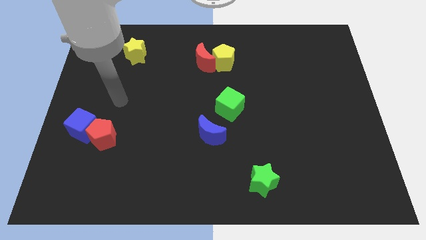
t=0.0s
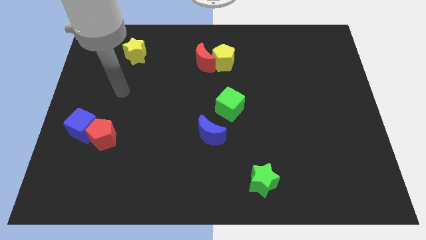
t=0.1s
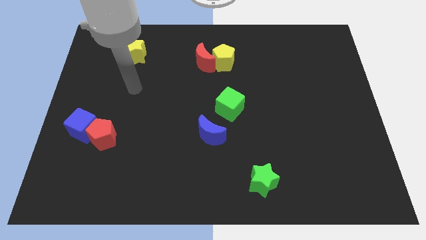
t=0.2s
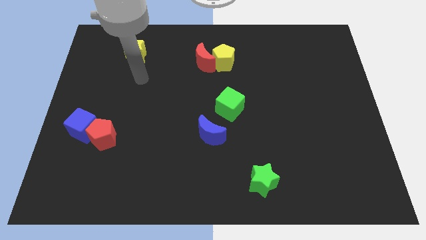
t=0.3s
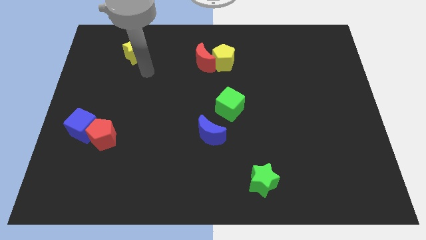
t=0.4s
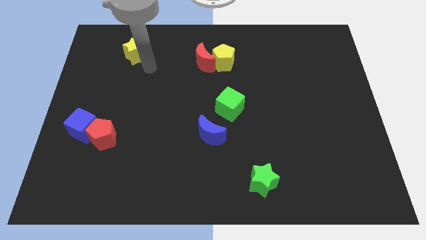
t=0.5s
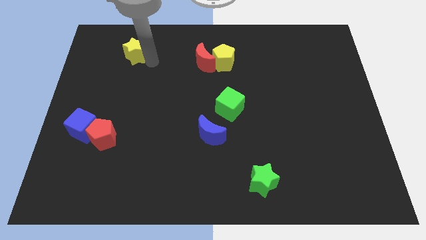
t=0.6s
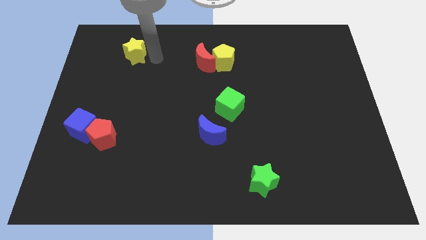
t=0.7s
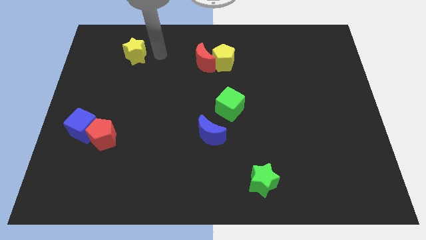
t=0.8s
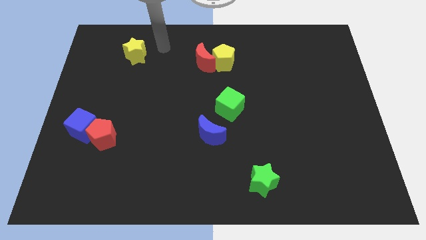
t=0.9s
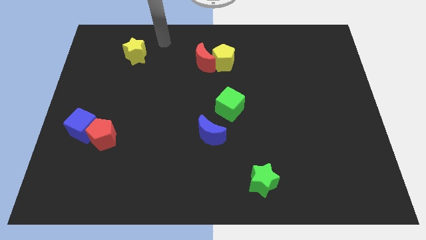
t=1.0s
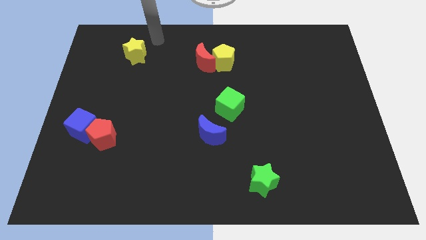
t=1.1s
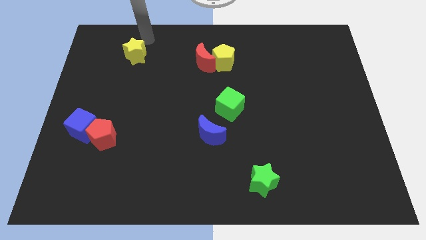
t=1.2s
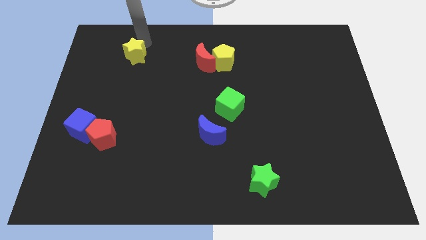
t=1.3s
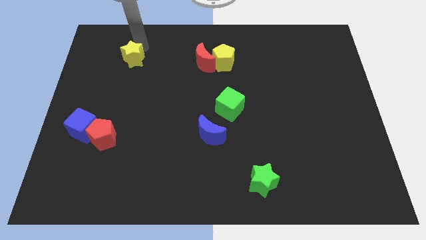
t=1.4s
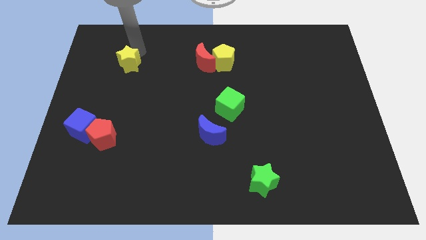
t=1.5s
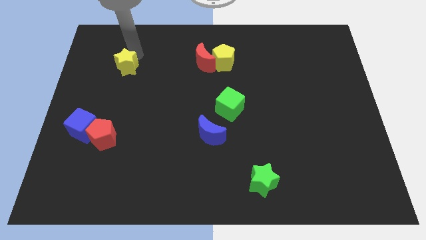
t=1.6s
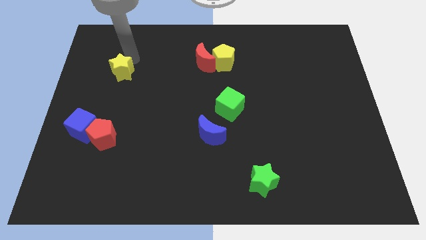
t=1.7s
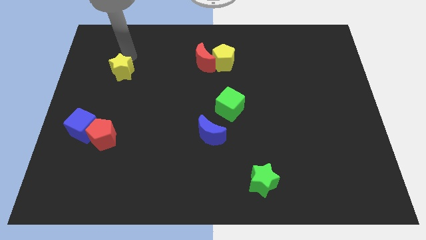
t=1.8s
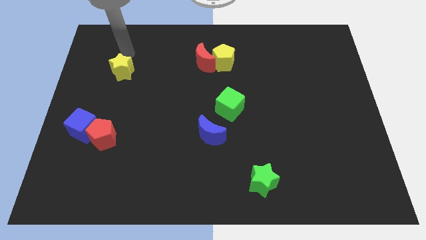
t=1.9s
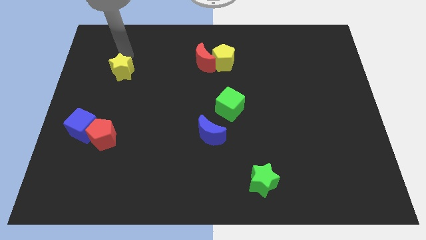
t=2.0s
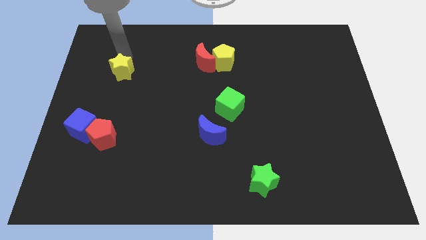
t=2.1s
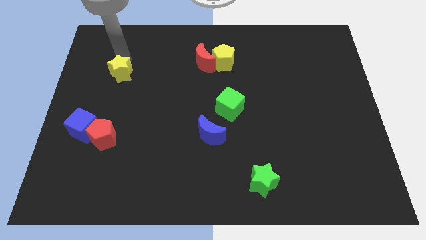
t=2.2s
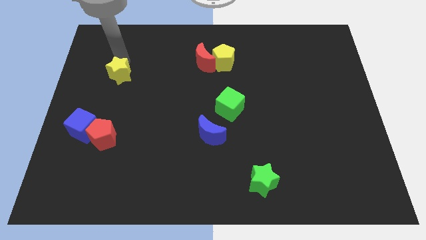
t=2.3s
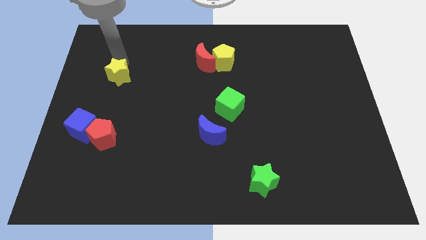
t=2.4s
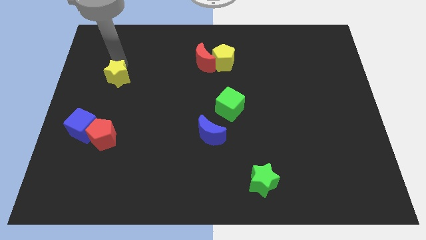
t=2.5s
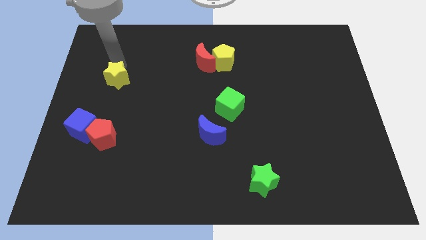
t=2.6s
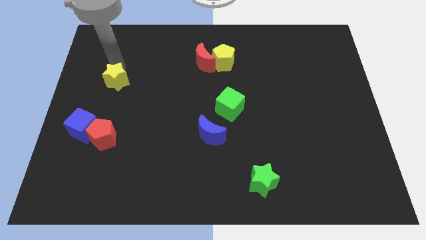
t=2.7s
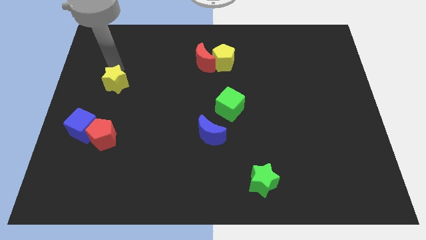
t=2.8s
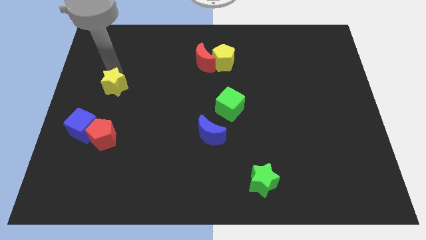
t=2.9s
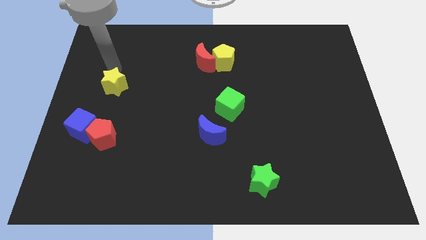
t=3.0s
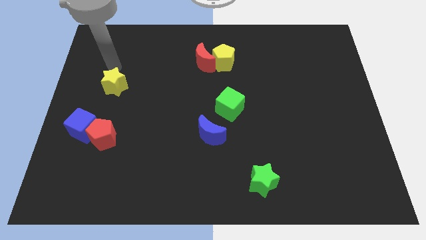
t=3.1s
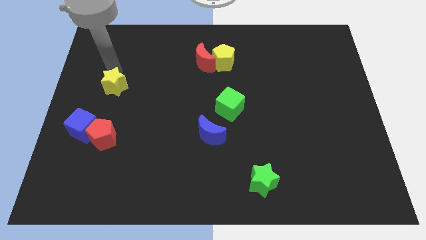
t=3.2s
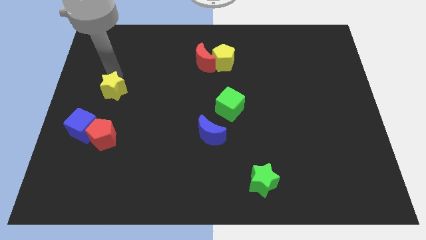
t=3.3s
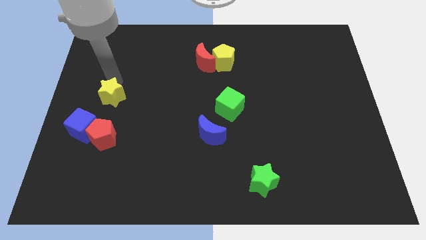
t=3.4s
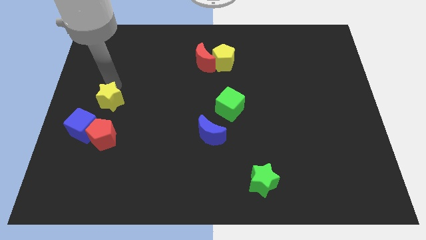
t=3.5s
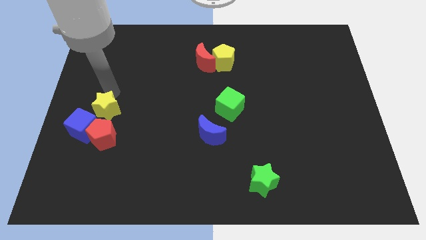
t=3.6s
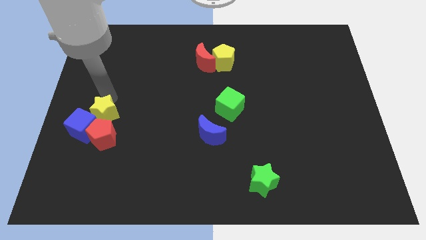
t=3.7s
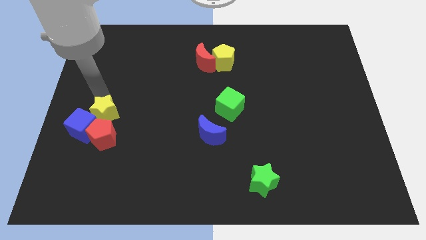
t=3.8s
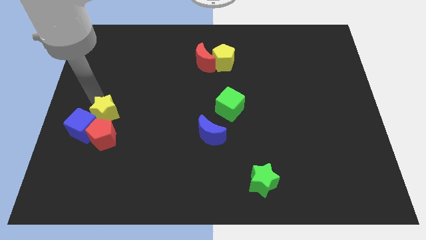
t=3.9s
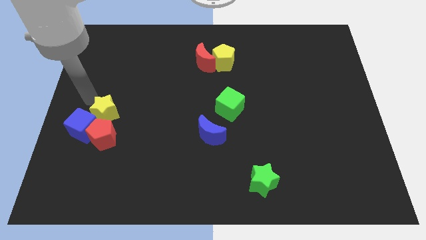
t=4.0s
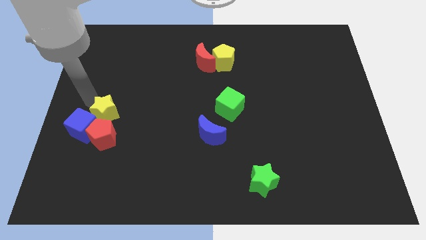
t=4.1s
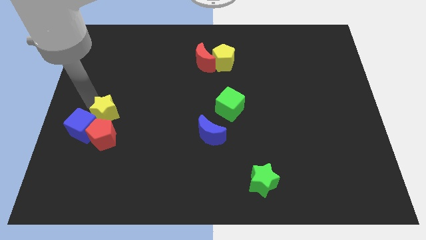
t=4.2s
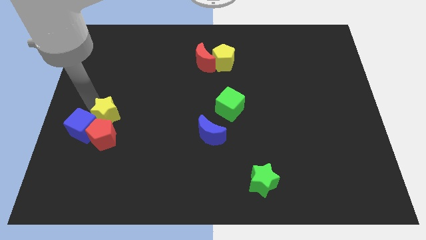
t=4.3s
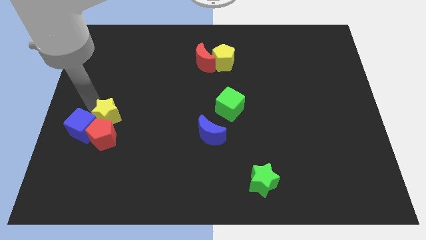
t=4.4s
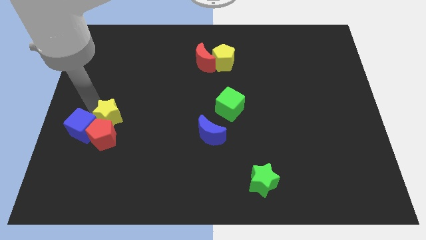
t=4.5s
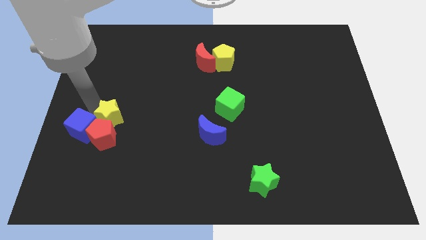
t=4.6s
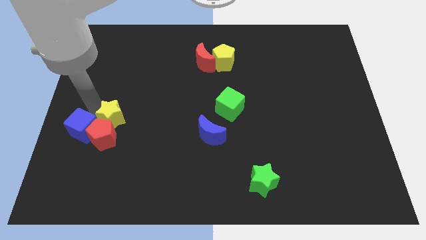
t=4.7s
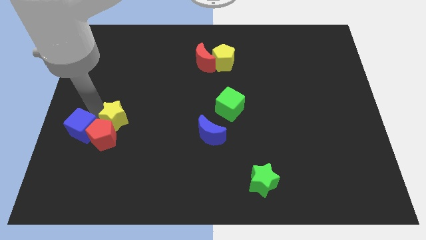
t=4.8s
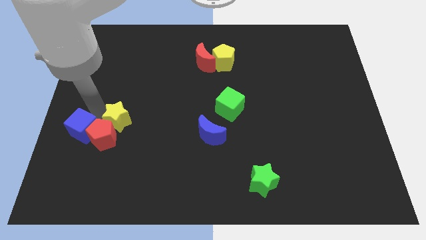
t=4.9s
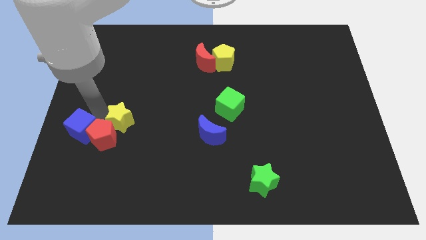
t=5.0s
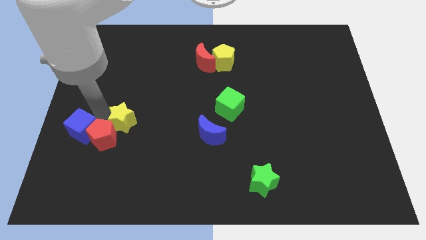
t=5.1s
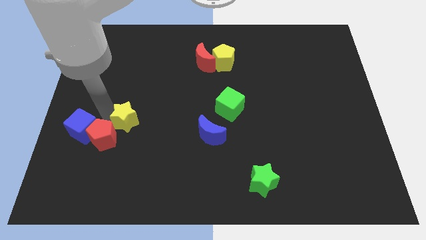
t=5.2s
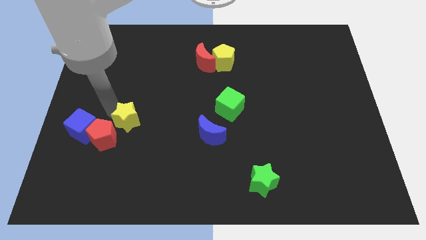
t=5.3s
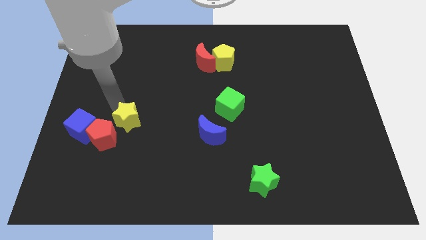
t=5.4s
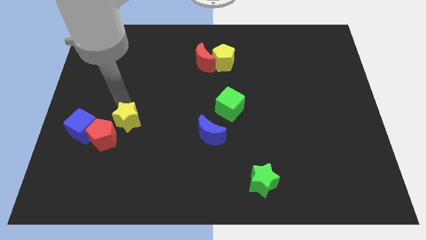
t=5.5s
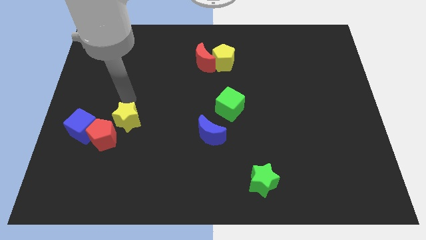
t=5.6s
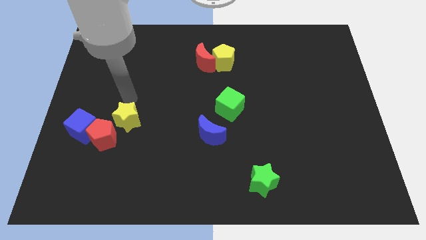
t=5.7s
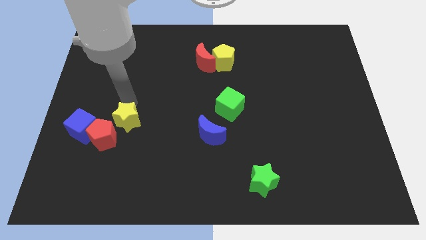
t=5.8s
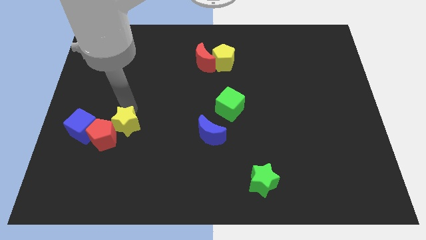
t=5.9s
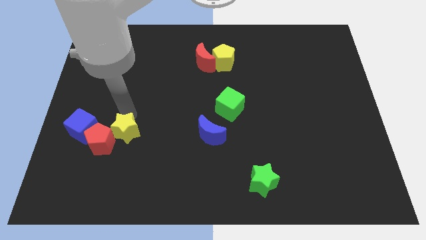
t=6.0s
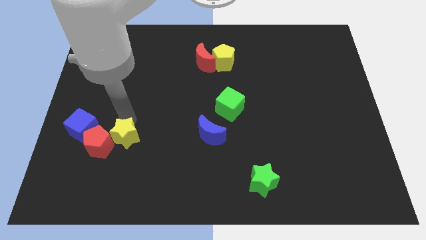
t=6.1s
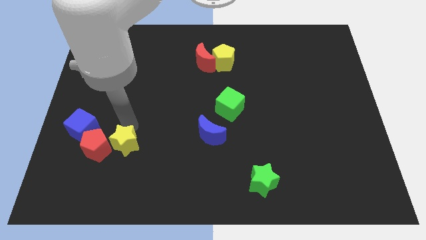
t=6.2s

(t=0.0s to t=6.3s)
push the yellow star diagonally down and to the right of the blue cube
